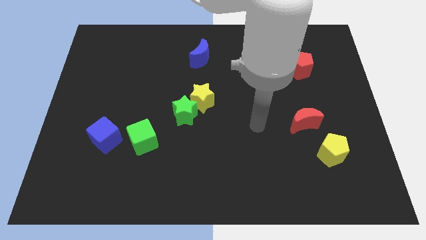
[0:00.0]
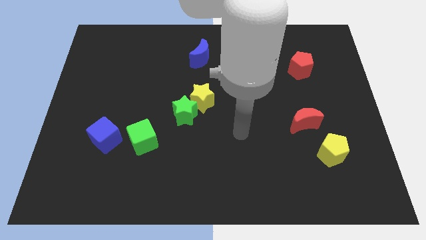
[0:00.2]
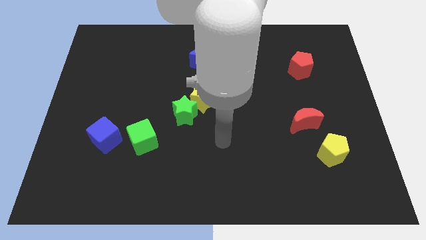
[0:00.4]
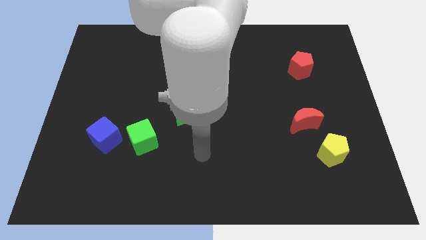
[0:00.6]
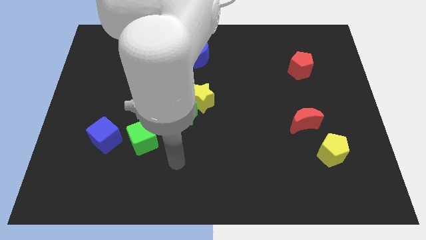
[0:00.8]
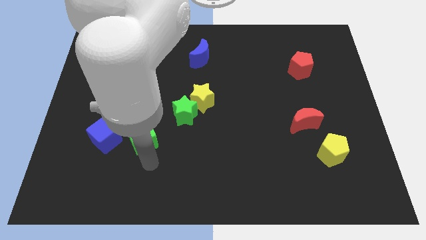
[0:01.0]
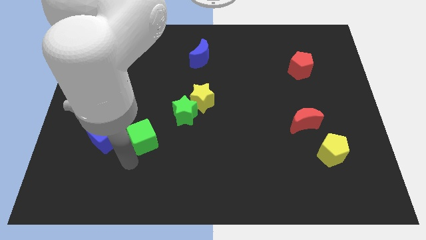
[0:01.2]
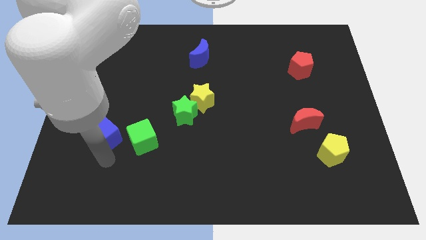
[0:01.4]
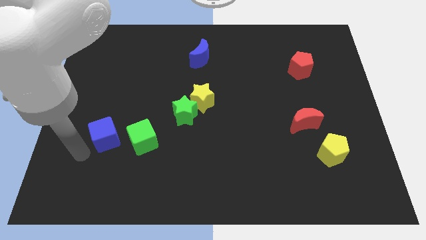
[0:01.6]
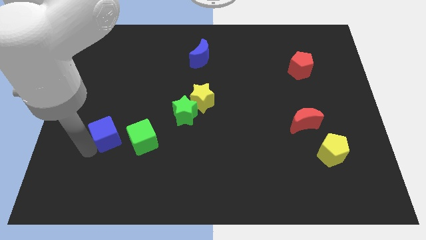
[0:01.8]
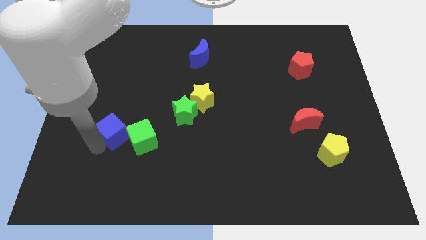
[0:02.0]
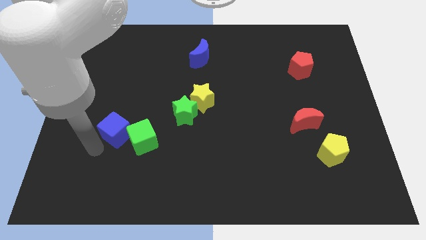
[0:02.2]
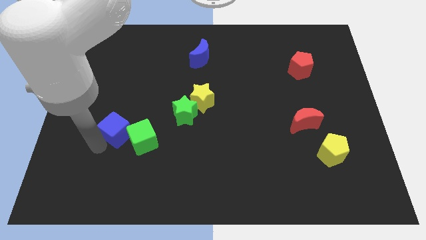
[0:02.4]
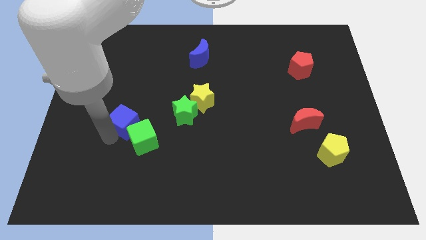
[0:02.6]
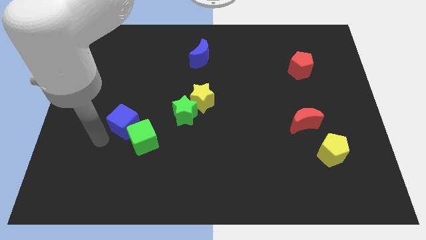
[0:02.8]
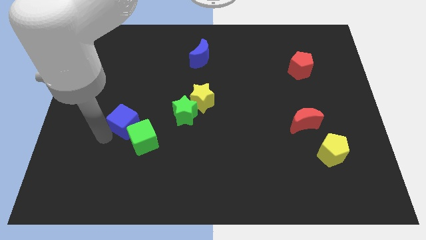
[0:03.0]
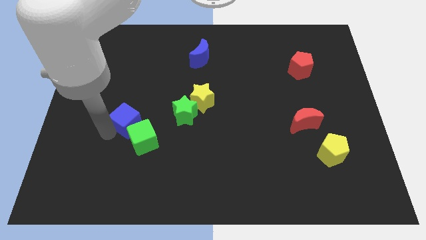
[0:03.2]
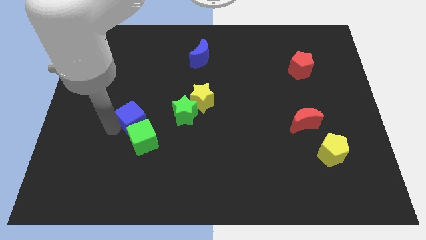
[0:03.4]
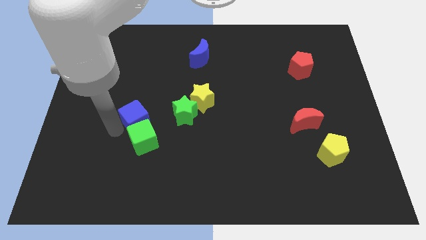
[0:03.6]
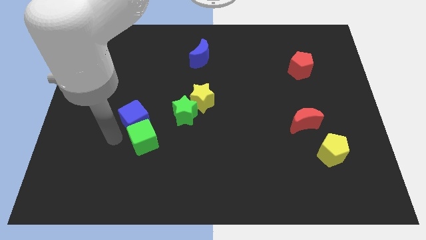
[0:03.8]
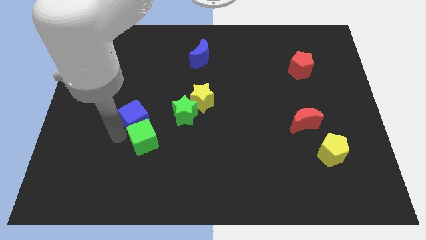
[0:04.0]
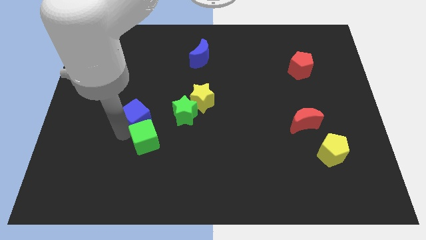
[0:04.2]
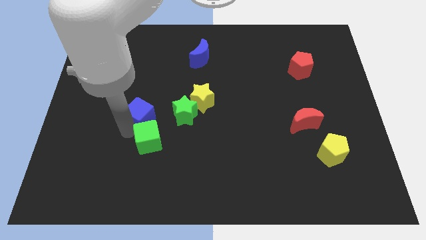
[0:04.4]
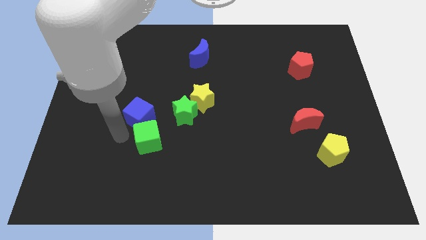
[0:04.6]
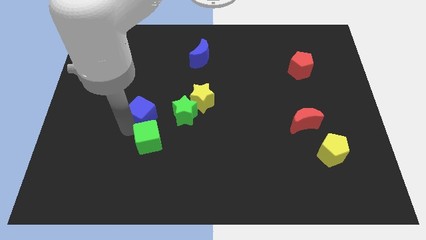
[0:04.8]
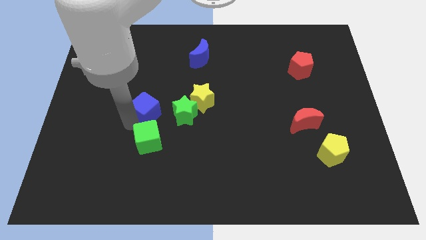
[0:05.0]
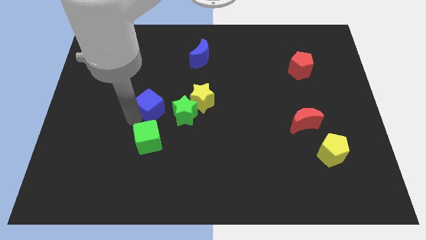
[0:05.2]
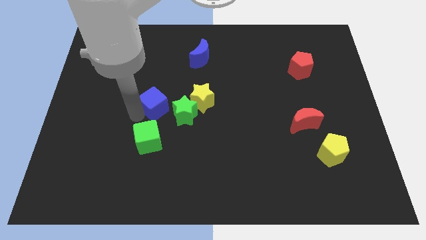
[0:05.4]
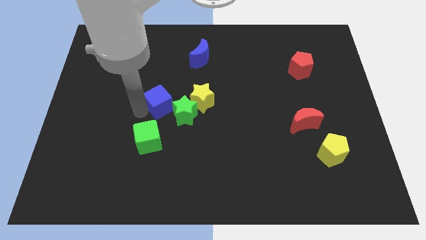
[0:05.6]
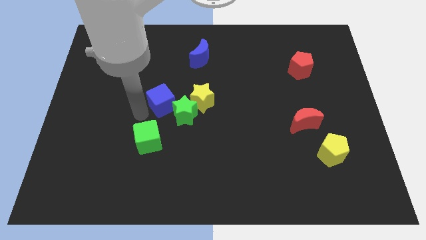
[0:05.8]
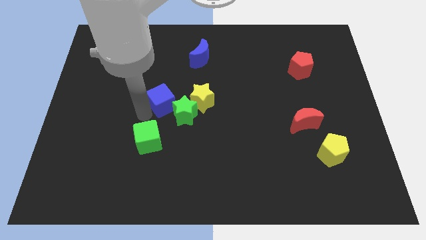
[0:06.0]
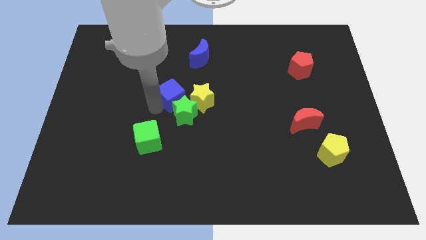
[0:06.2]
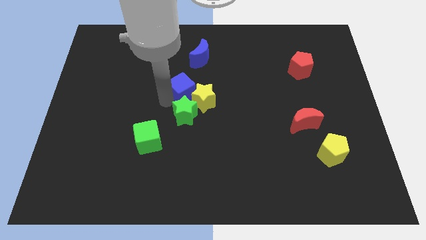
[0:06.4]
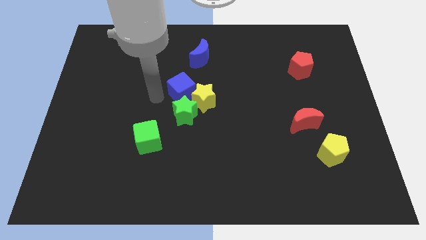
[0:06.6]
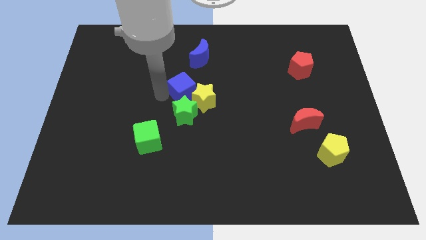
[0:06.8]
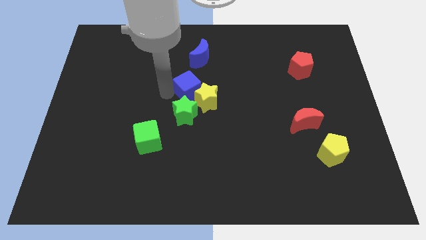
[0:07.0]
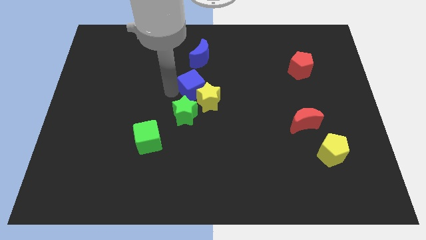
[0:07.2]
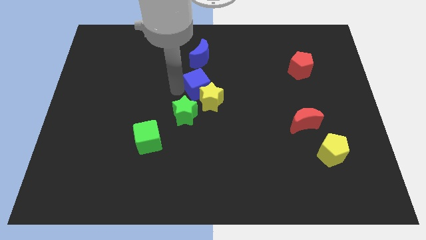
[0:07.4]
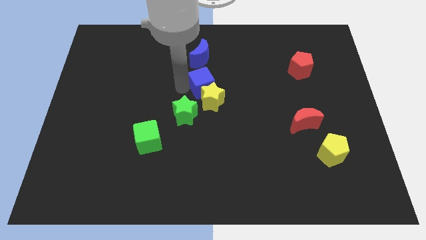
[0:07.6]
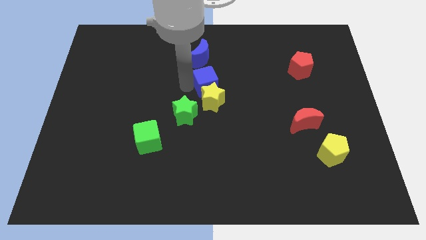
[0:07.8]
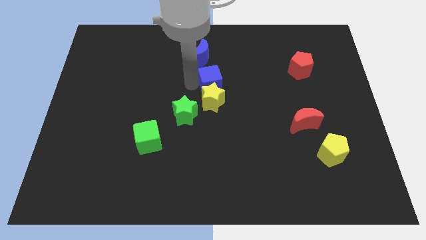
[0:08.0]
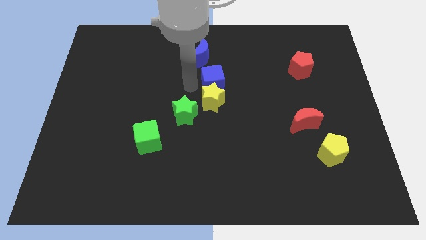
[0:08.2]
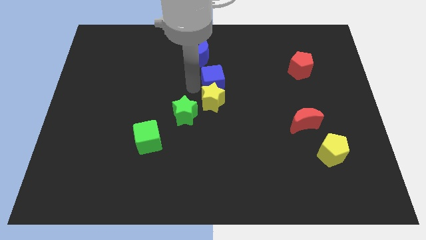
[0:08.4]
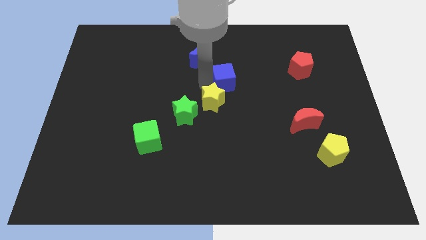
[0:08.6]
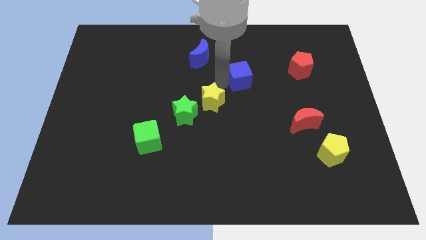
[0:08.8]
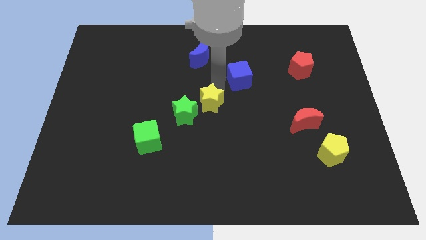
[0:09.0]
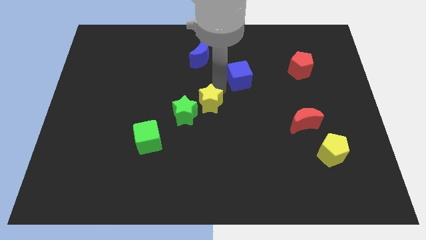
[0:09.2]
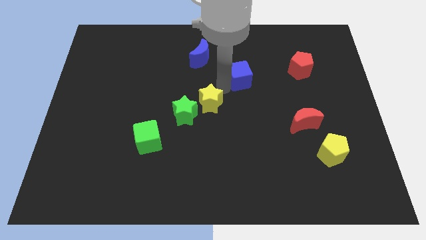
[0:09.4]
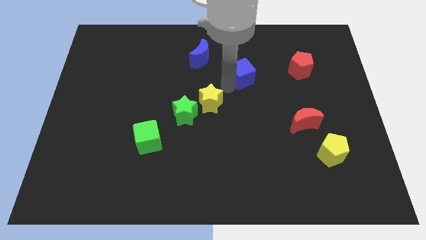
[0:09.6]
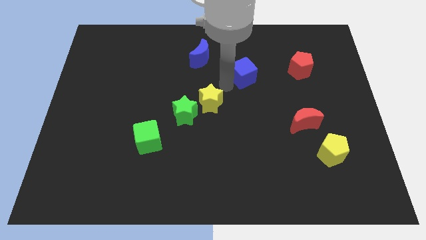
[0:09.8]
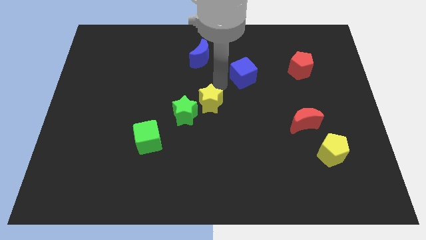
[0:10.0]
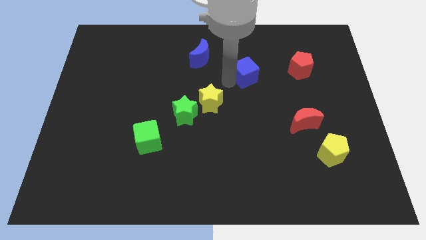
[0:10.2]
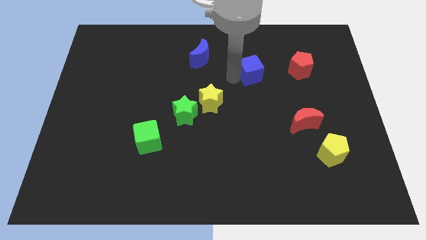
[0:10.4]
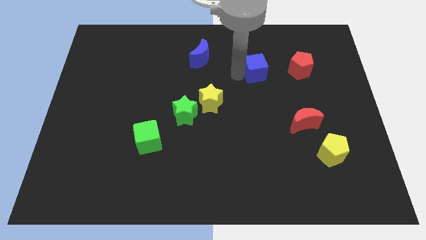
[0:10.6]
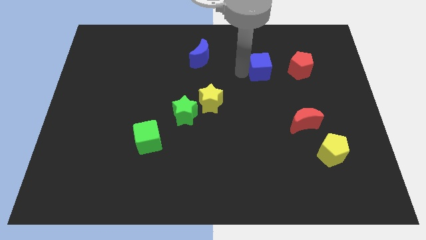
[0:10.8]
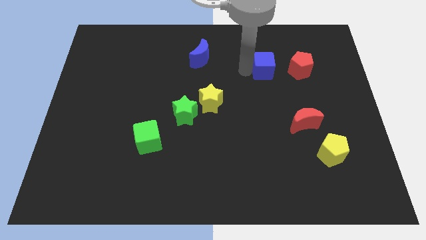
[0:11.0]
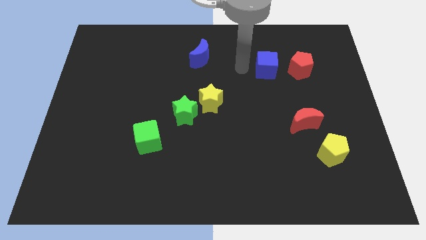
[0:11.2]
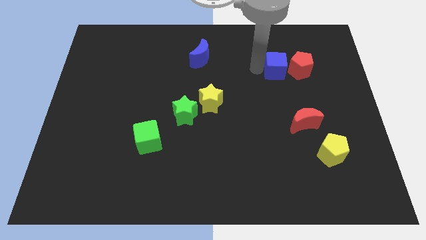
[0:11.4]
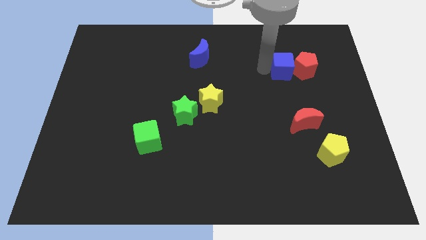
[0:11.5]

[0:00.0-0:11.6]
slide the blue cube towards the red pentagon

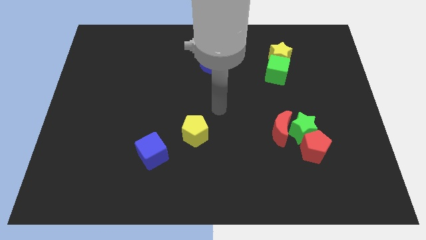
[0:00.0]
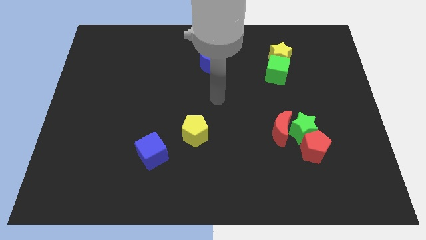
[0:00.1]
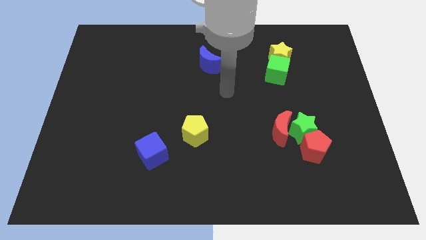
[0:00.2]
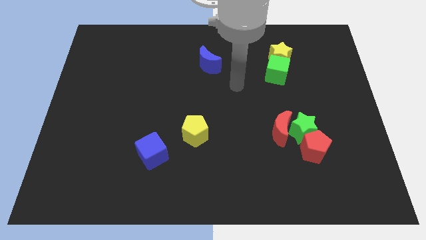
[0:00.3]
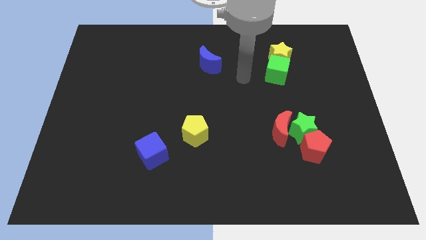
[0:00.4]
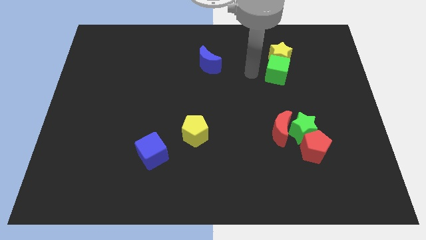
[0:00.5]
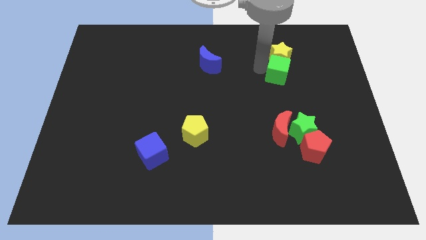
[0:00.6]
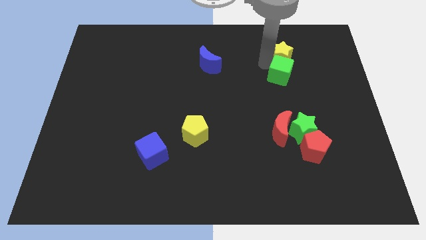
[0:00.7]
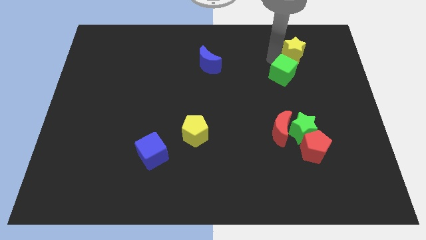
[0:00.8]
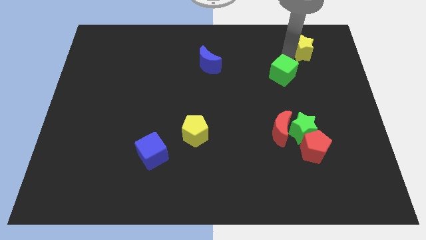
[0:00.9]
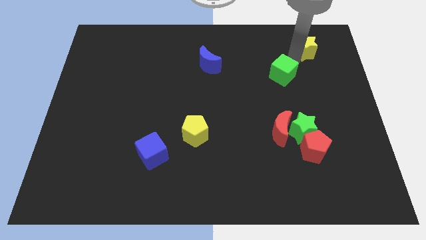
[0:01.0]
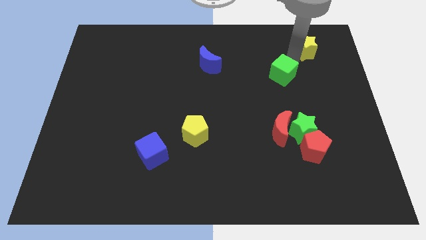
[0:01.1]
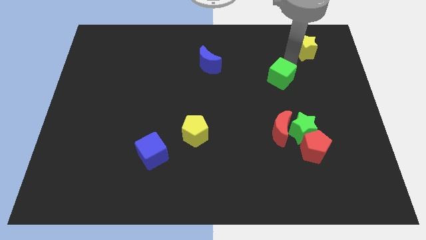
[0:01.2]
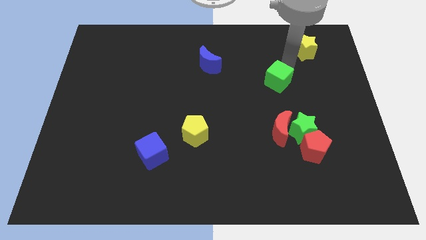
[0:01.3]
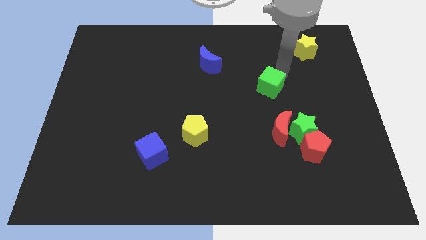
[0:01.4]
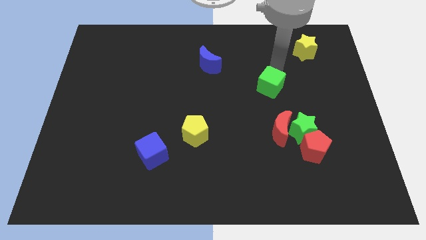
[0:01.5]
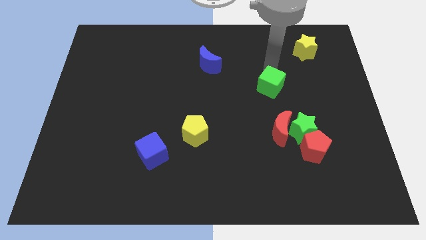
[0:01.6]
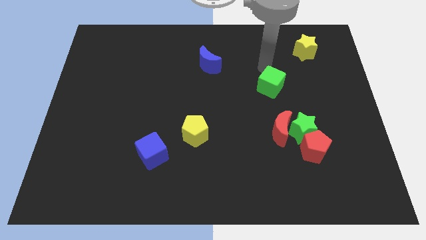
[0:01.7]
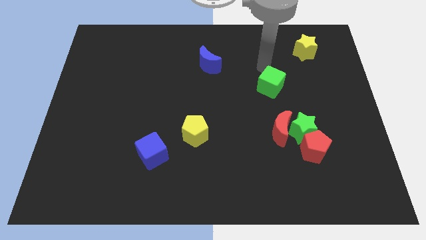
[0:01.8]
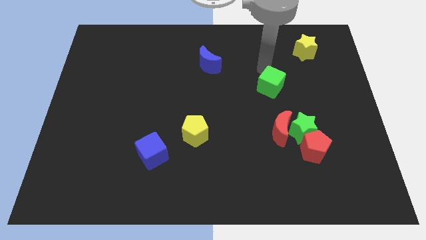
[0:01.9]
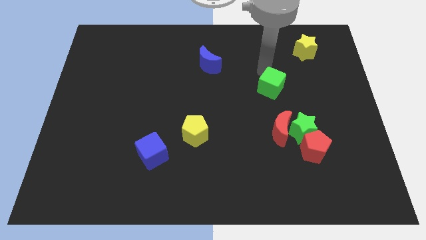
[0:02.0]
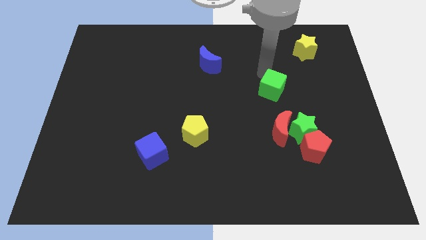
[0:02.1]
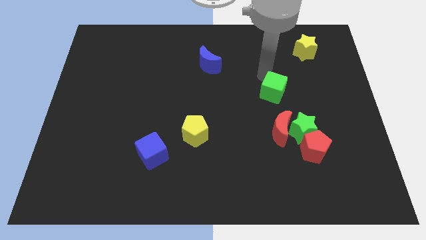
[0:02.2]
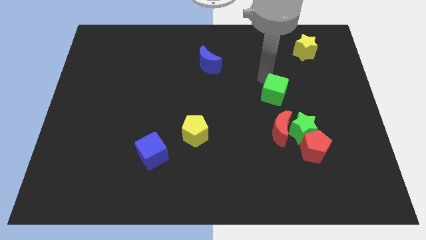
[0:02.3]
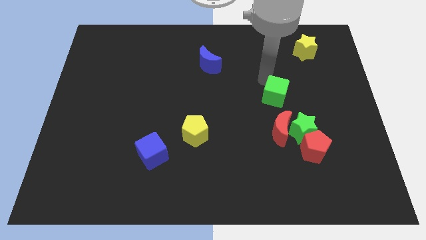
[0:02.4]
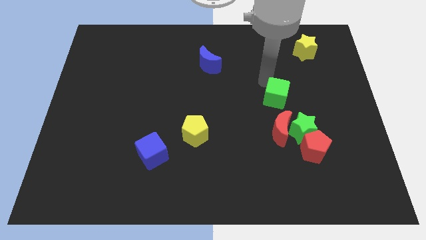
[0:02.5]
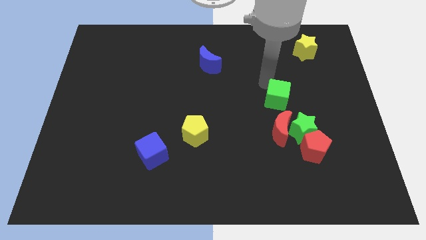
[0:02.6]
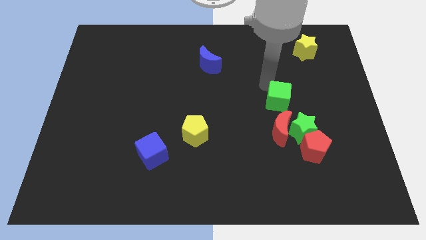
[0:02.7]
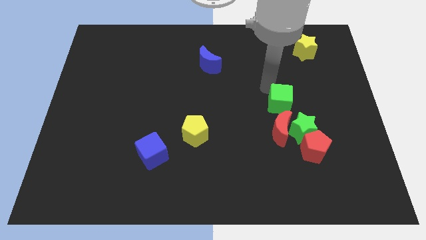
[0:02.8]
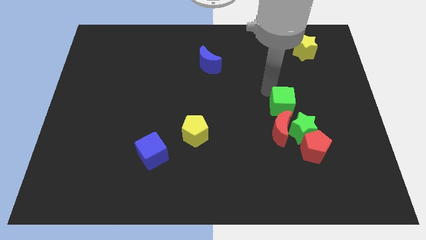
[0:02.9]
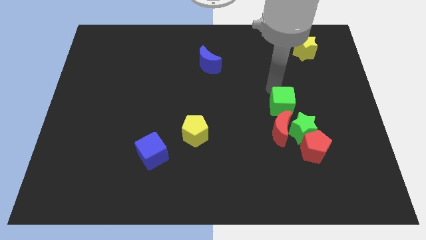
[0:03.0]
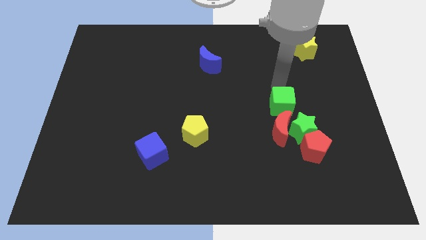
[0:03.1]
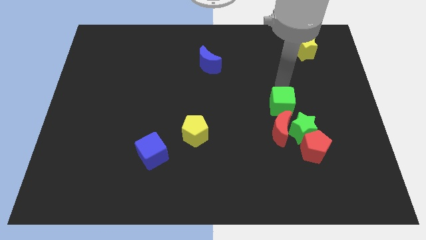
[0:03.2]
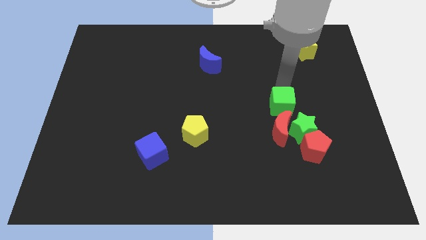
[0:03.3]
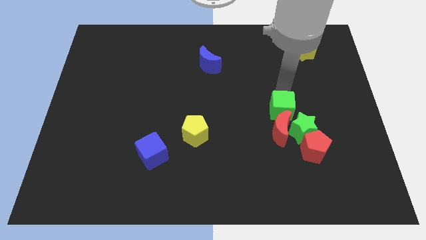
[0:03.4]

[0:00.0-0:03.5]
put the green cube next to the red moon
